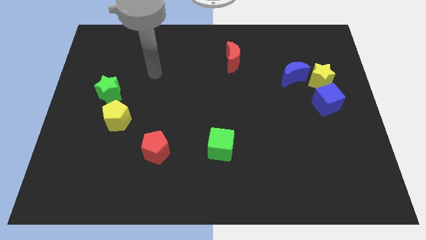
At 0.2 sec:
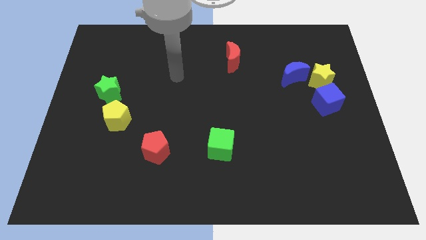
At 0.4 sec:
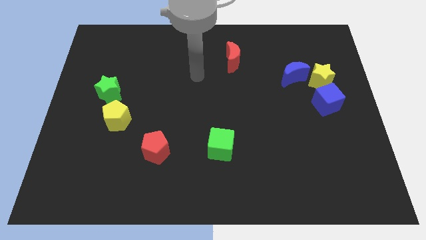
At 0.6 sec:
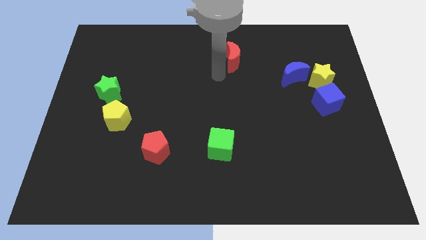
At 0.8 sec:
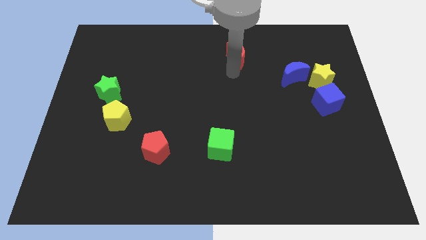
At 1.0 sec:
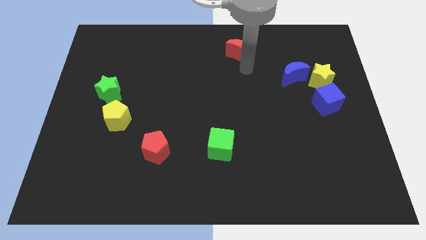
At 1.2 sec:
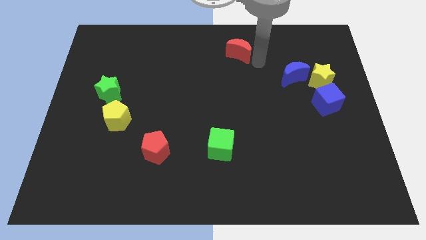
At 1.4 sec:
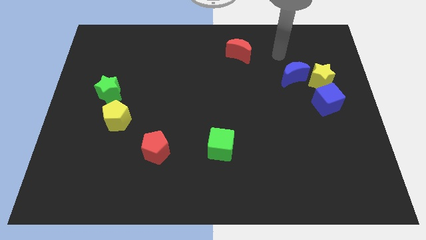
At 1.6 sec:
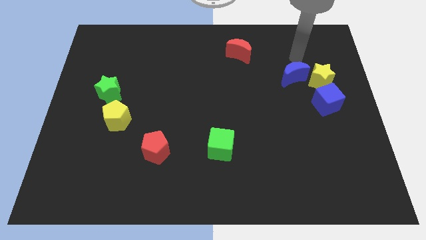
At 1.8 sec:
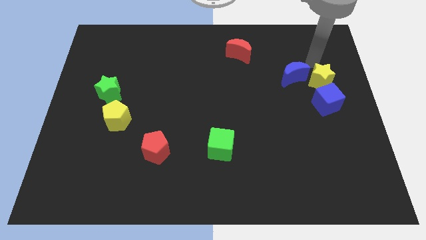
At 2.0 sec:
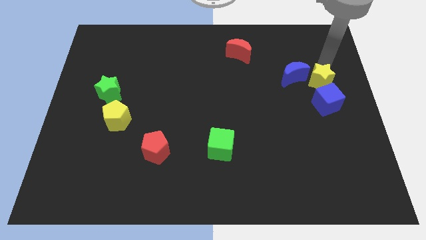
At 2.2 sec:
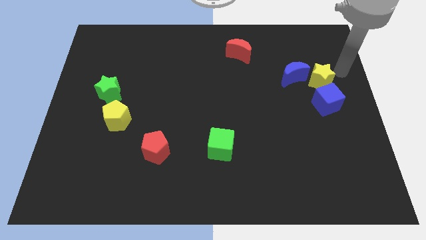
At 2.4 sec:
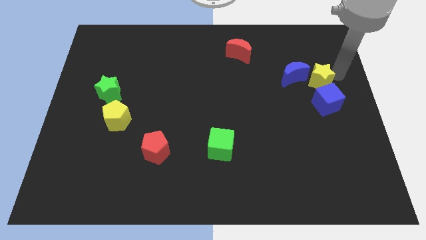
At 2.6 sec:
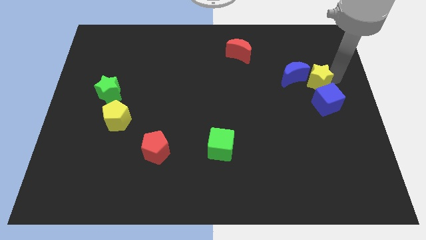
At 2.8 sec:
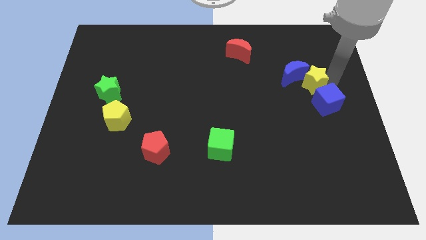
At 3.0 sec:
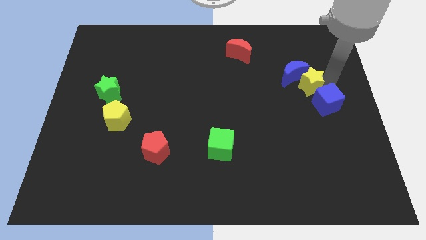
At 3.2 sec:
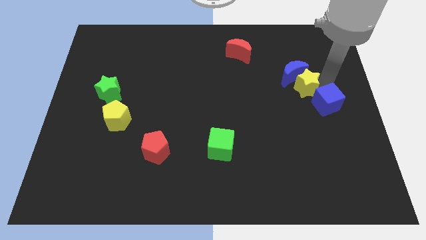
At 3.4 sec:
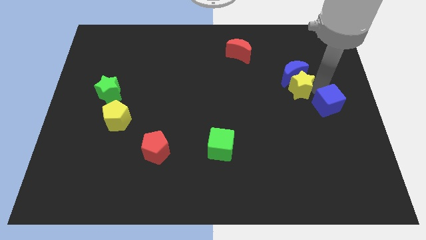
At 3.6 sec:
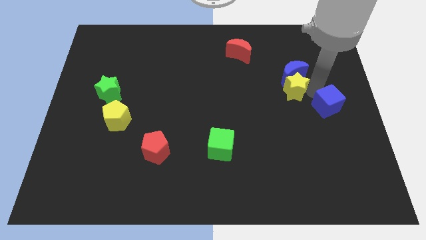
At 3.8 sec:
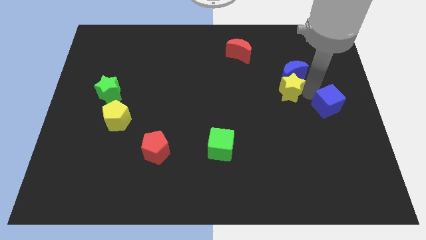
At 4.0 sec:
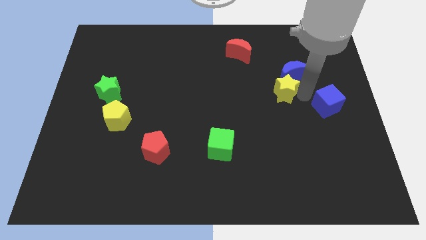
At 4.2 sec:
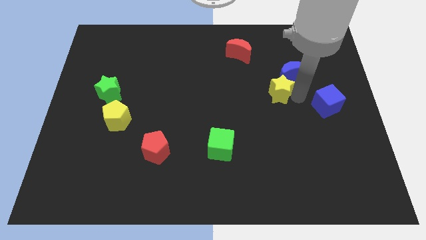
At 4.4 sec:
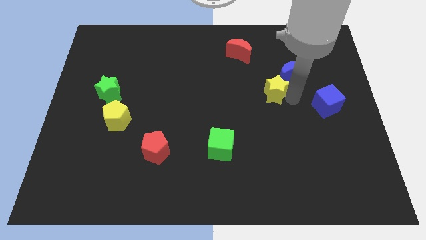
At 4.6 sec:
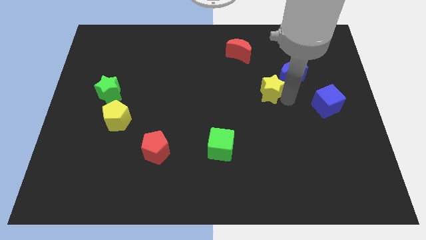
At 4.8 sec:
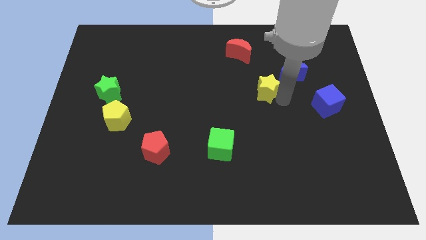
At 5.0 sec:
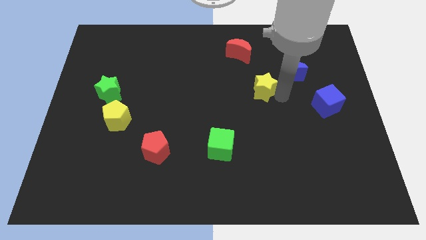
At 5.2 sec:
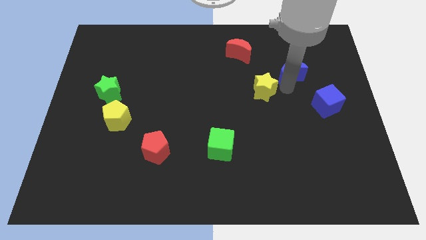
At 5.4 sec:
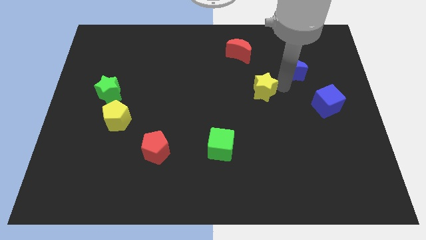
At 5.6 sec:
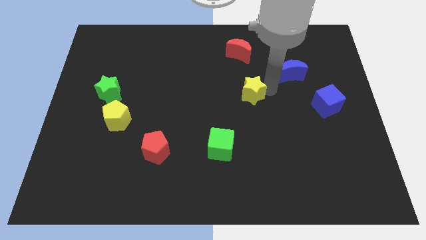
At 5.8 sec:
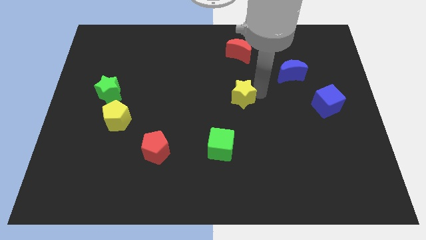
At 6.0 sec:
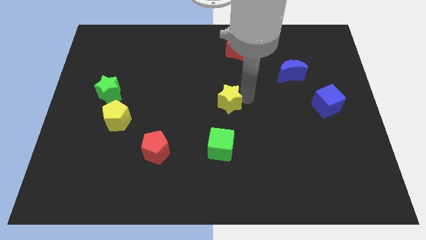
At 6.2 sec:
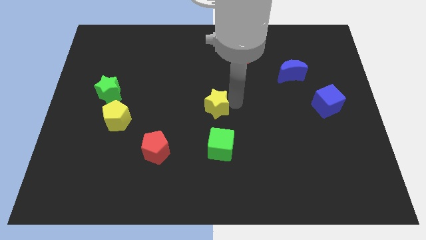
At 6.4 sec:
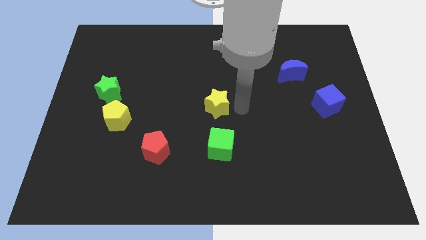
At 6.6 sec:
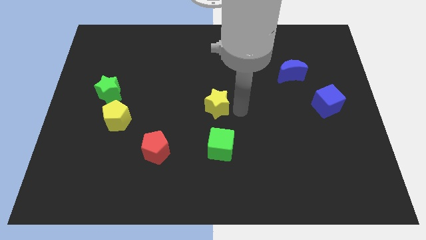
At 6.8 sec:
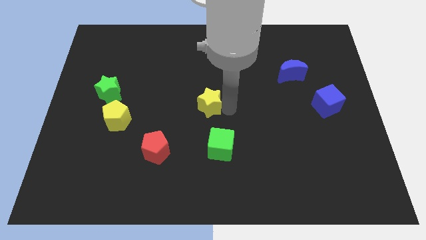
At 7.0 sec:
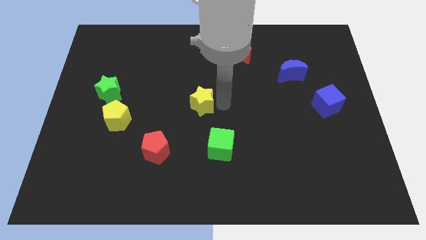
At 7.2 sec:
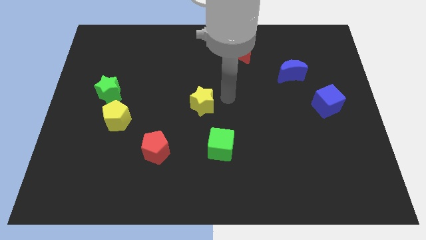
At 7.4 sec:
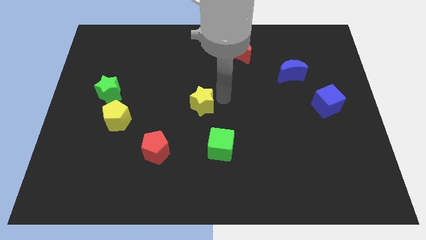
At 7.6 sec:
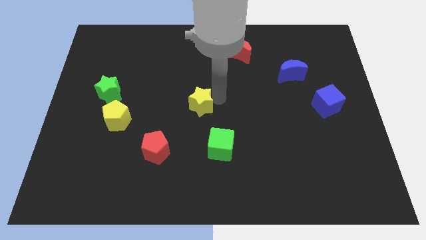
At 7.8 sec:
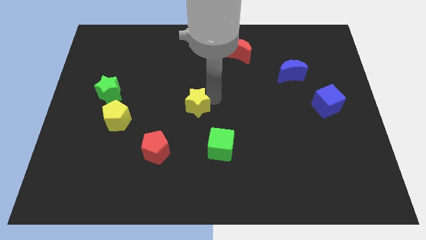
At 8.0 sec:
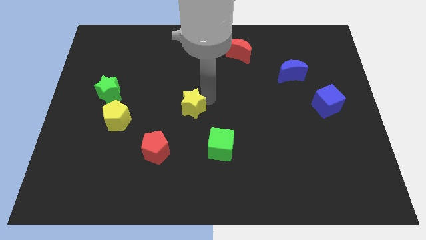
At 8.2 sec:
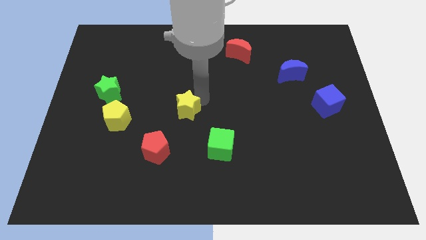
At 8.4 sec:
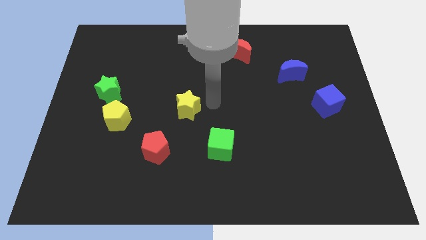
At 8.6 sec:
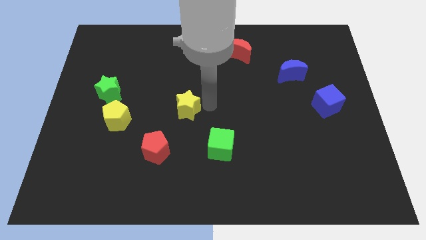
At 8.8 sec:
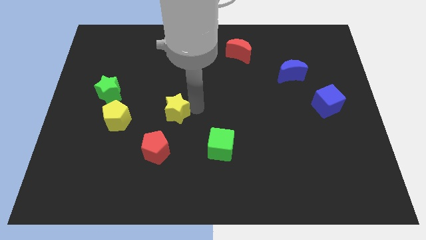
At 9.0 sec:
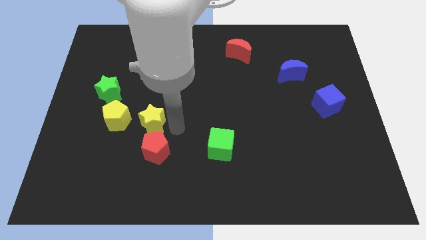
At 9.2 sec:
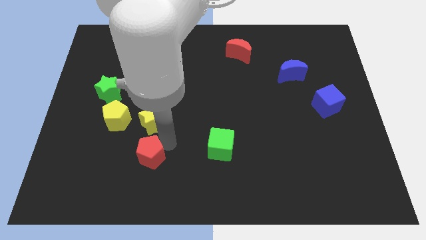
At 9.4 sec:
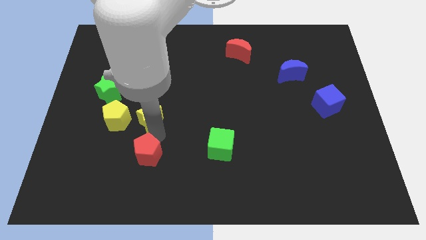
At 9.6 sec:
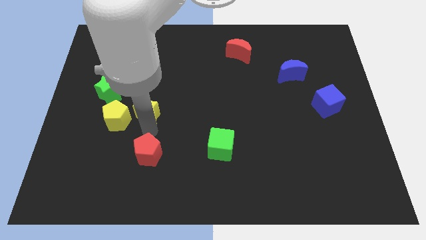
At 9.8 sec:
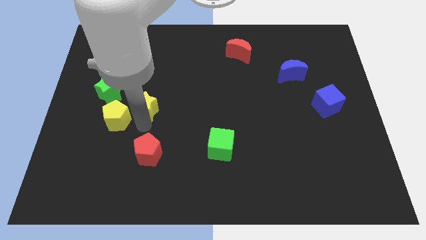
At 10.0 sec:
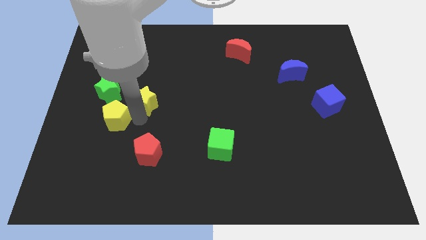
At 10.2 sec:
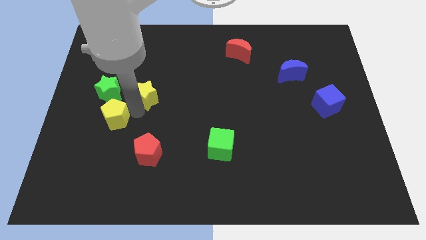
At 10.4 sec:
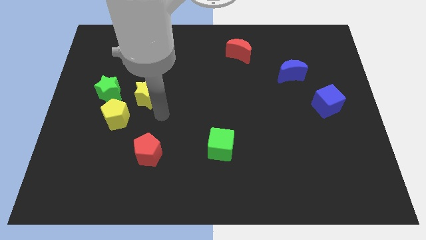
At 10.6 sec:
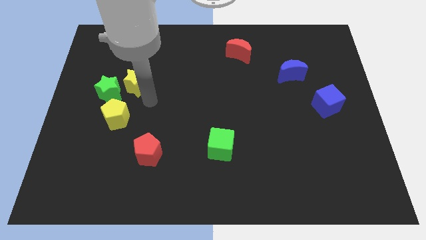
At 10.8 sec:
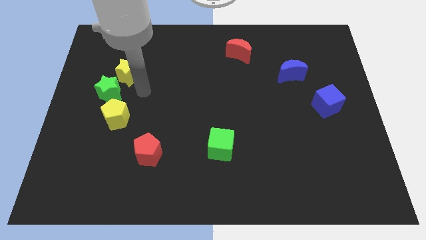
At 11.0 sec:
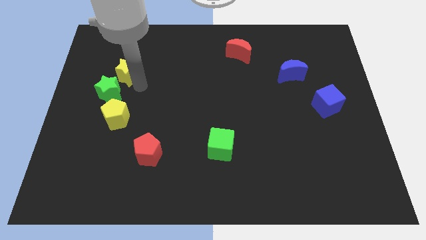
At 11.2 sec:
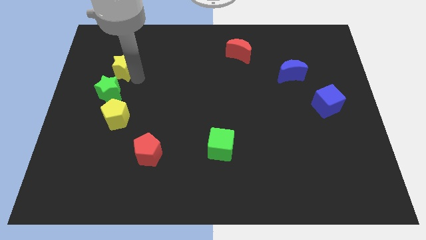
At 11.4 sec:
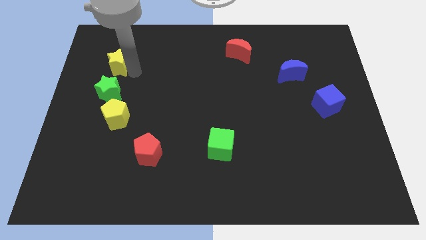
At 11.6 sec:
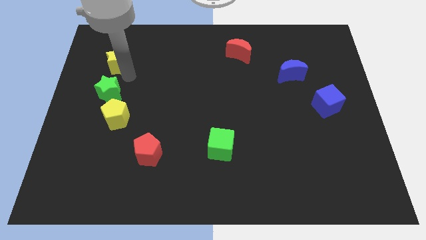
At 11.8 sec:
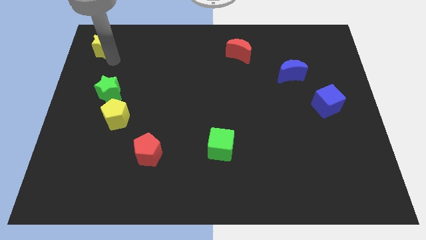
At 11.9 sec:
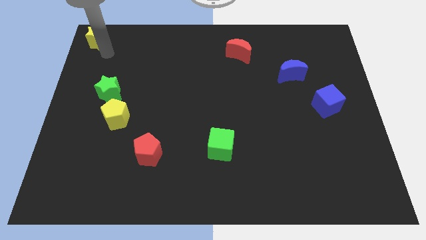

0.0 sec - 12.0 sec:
push the yellow star to the top left
